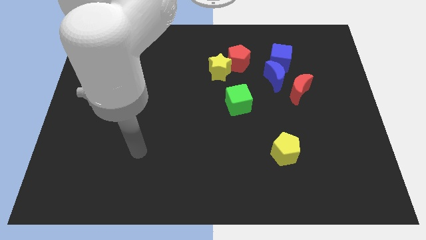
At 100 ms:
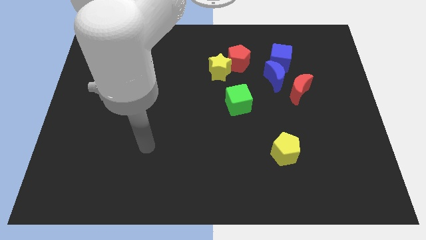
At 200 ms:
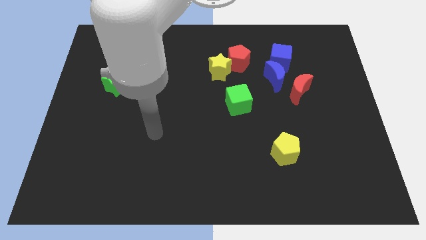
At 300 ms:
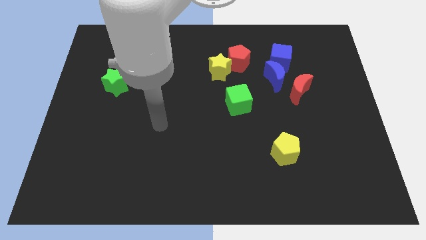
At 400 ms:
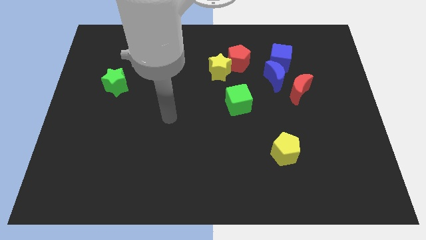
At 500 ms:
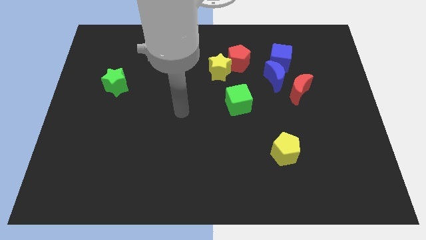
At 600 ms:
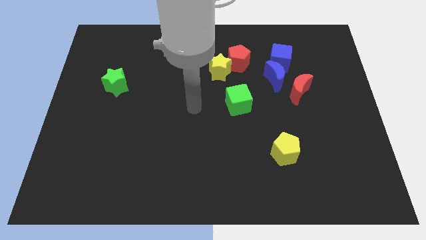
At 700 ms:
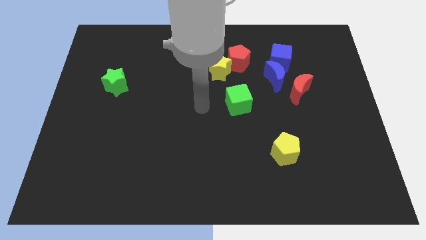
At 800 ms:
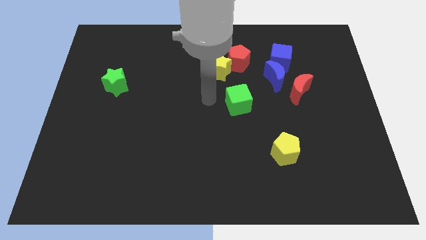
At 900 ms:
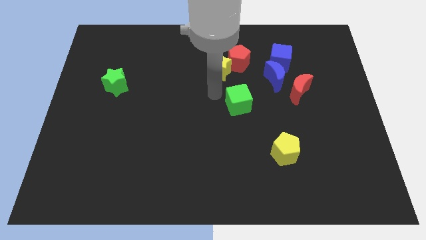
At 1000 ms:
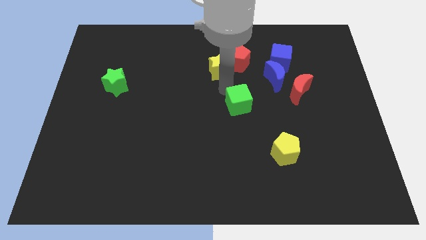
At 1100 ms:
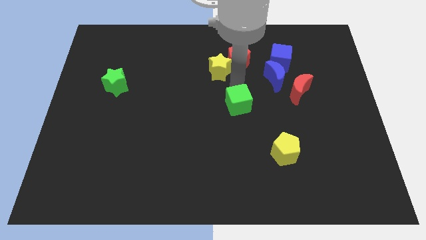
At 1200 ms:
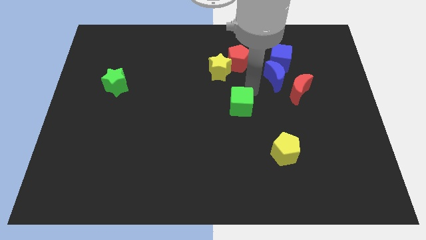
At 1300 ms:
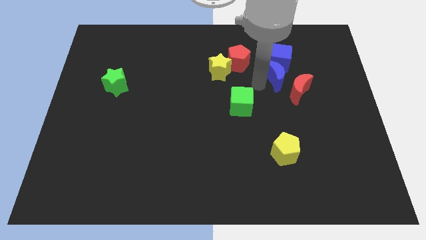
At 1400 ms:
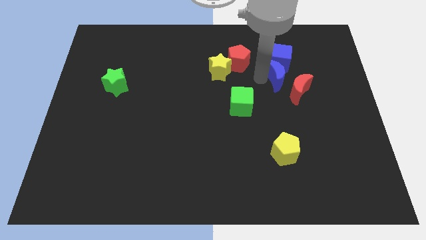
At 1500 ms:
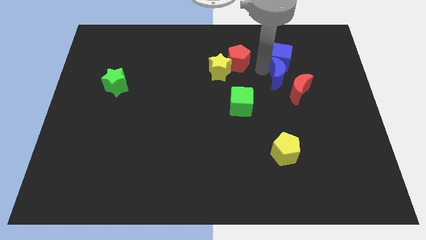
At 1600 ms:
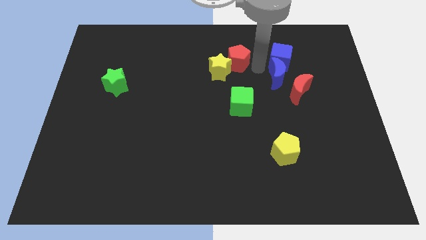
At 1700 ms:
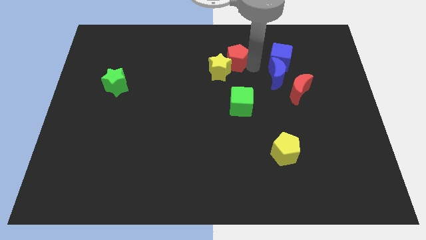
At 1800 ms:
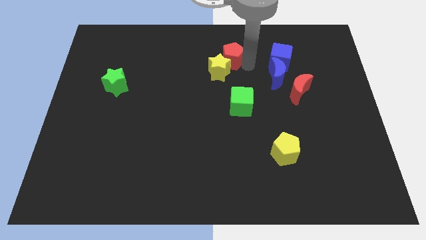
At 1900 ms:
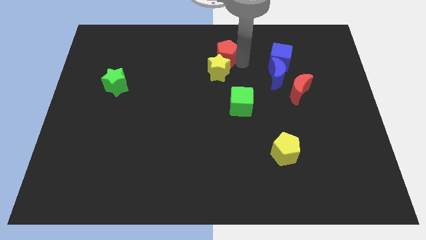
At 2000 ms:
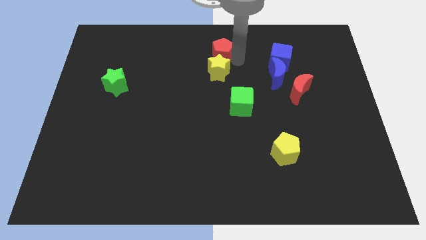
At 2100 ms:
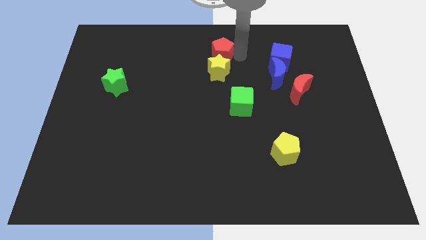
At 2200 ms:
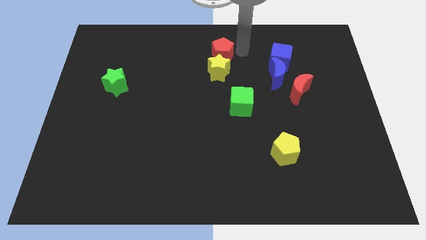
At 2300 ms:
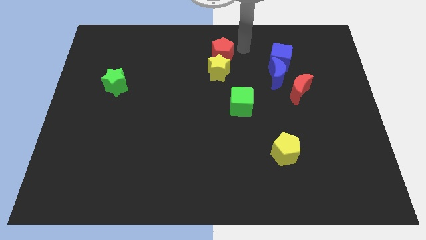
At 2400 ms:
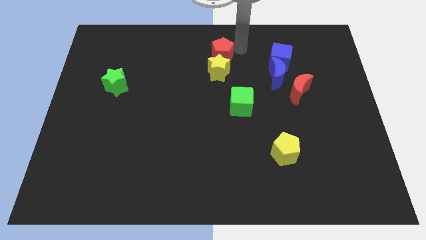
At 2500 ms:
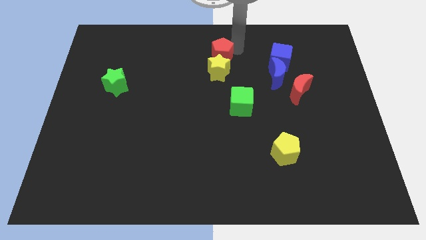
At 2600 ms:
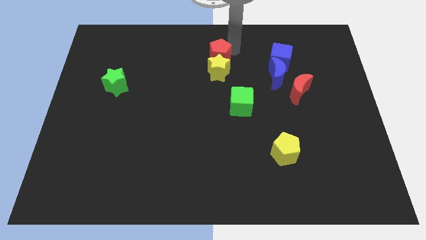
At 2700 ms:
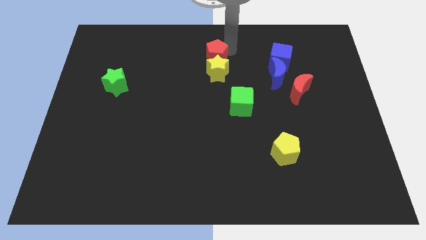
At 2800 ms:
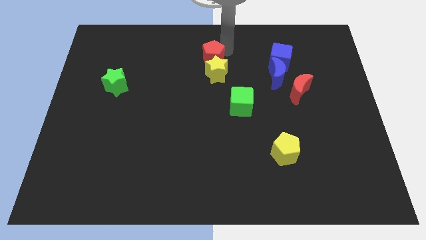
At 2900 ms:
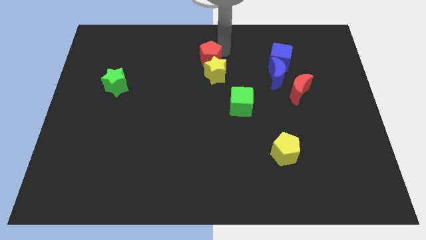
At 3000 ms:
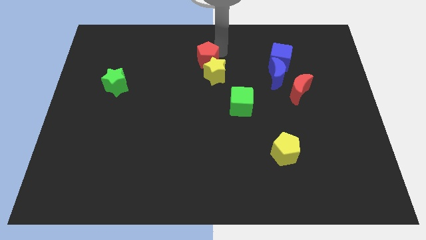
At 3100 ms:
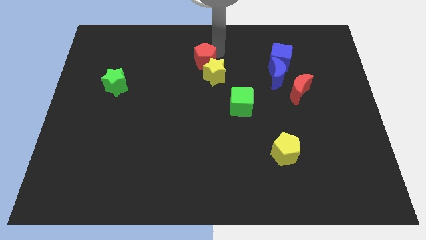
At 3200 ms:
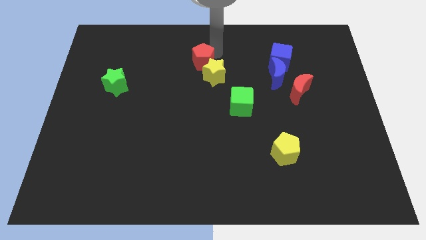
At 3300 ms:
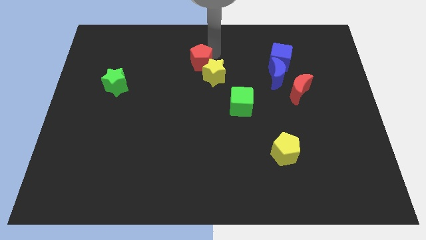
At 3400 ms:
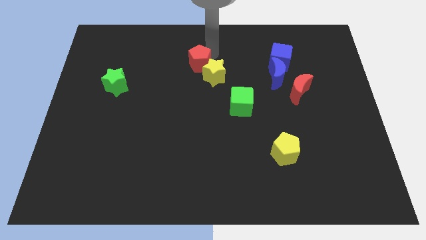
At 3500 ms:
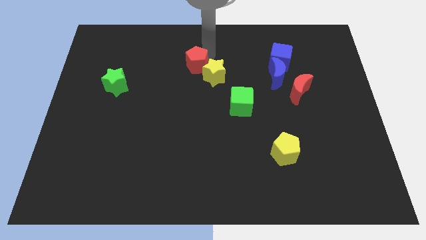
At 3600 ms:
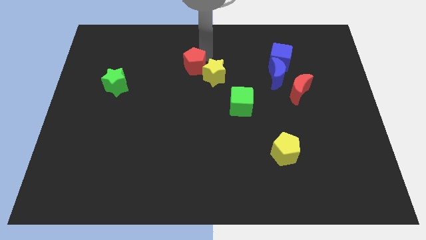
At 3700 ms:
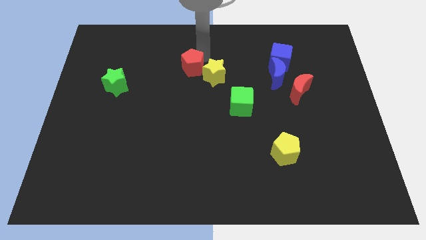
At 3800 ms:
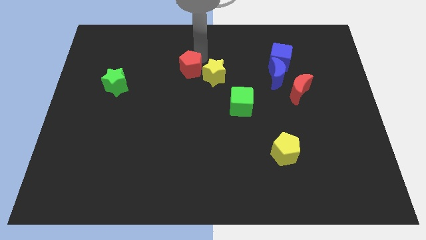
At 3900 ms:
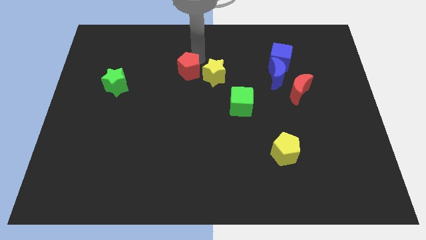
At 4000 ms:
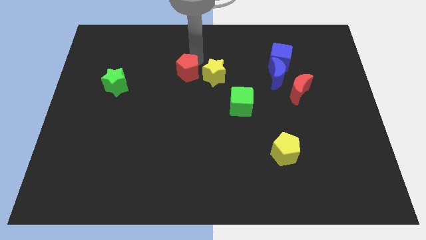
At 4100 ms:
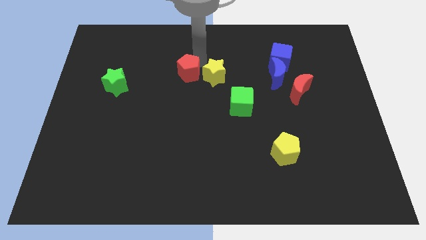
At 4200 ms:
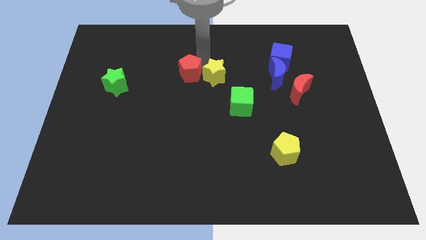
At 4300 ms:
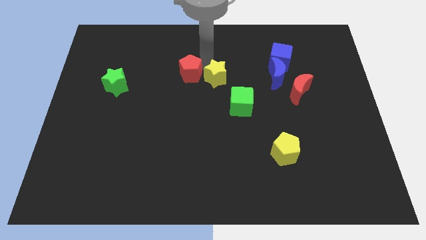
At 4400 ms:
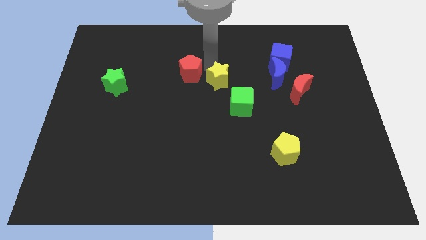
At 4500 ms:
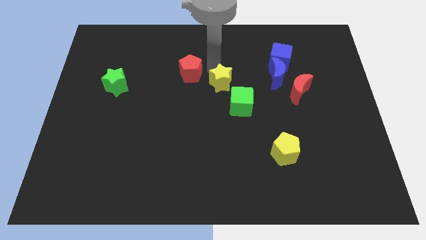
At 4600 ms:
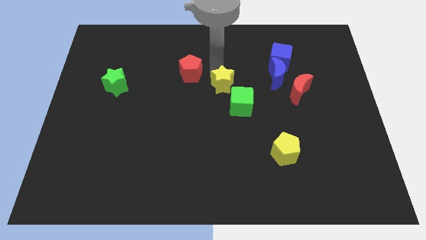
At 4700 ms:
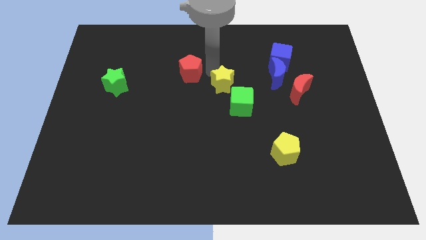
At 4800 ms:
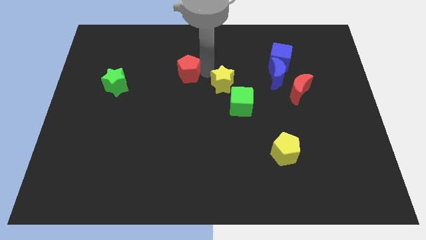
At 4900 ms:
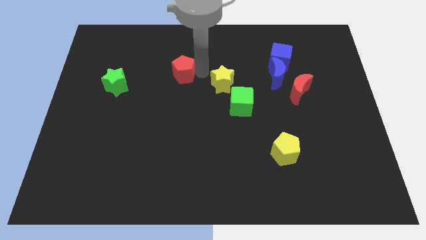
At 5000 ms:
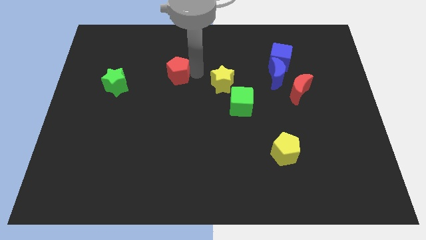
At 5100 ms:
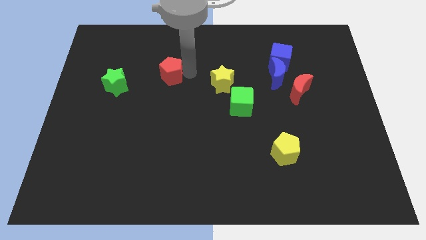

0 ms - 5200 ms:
move the red pentagon to the right side of the green star

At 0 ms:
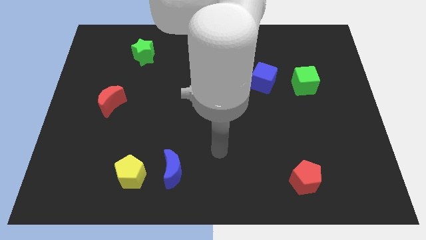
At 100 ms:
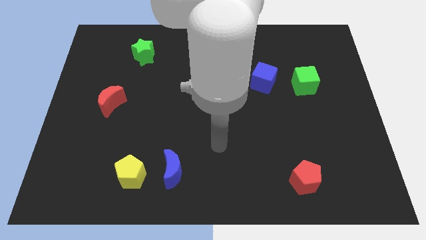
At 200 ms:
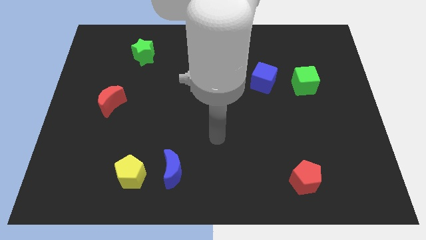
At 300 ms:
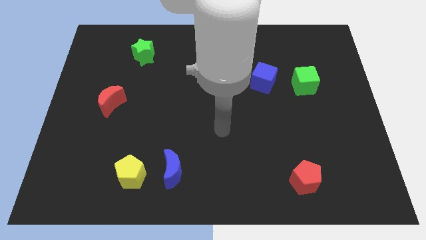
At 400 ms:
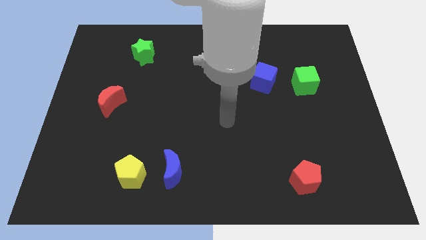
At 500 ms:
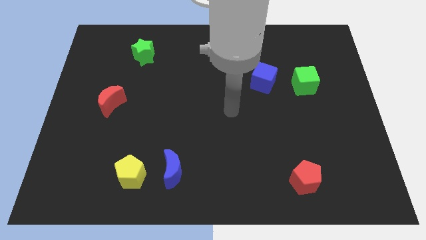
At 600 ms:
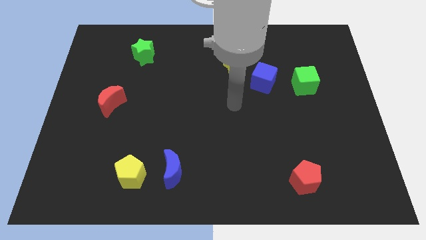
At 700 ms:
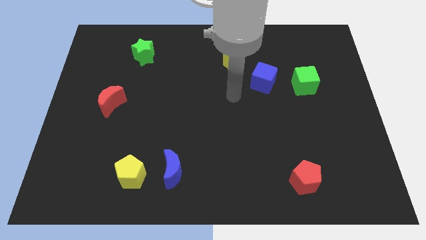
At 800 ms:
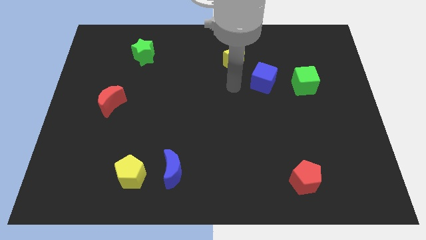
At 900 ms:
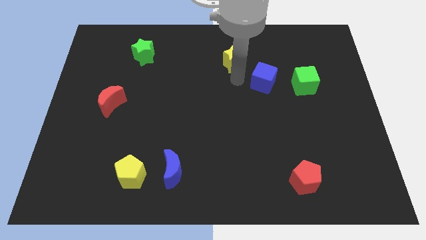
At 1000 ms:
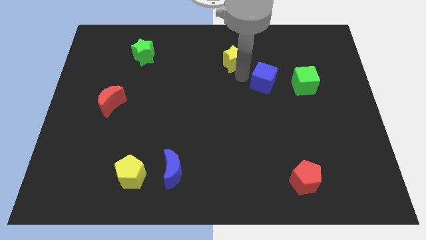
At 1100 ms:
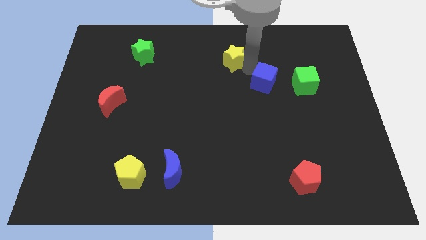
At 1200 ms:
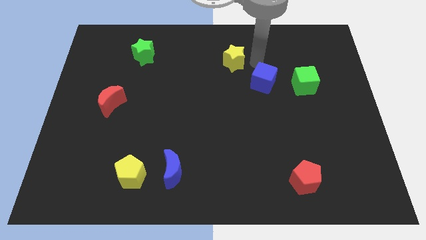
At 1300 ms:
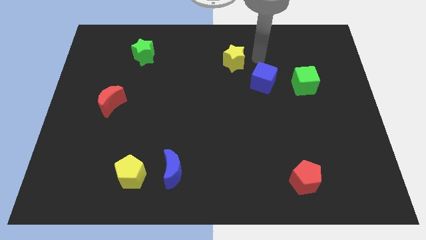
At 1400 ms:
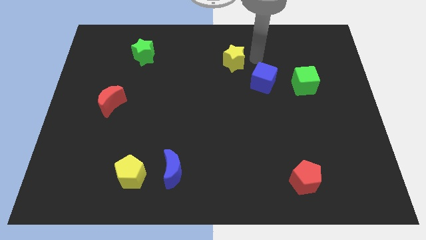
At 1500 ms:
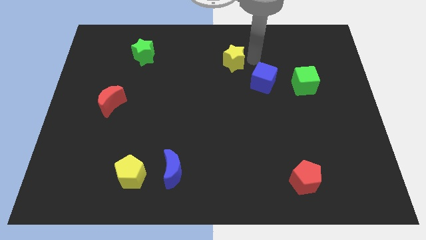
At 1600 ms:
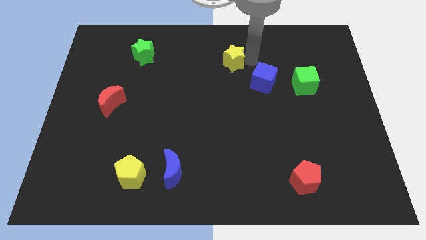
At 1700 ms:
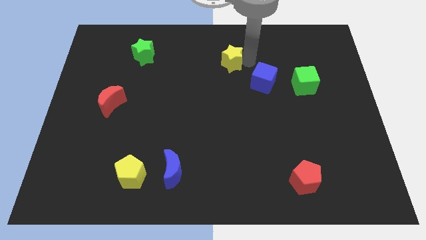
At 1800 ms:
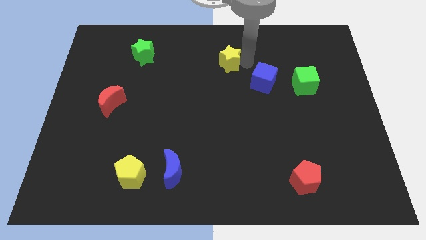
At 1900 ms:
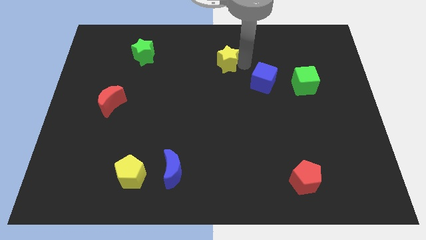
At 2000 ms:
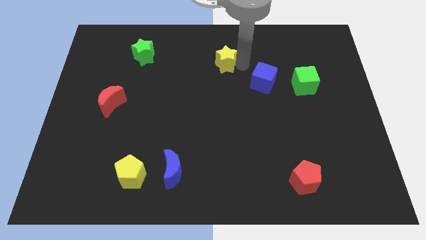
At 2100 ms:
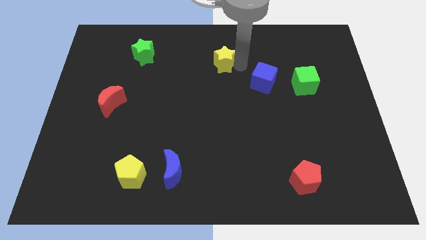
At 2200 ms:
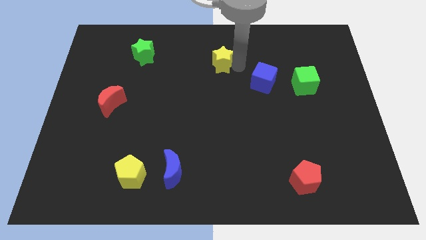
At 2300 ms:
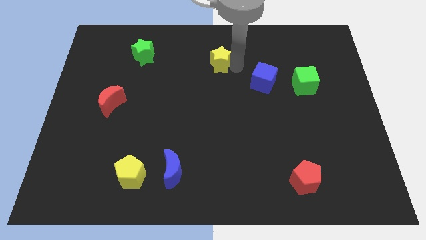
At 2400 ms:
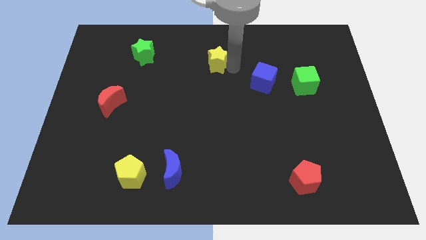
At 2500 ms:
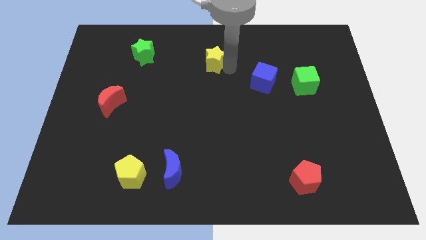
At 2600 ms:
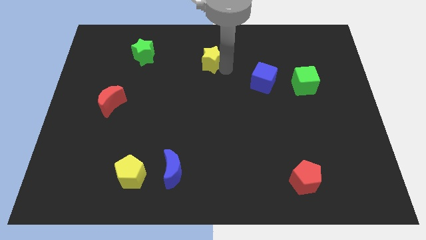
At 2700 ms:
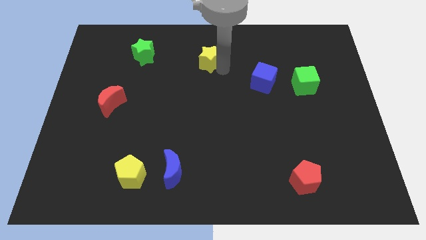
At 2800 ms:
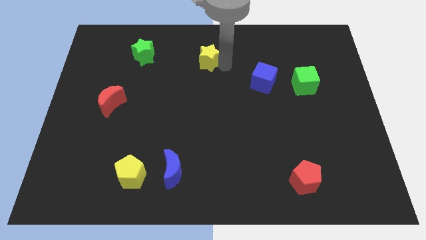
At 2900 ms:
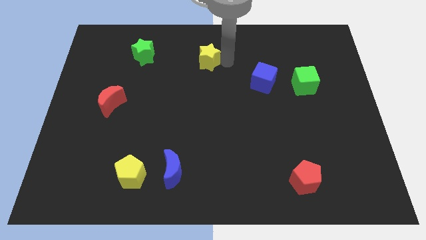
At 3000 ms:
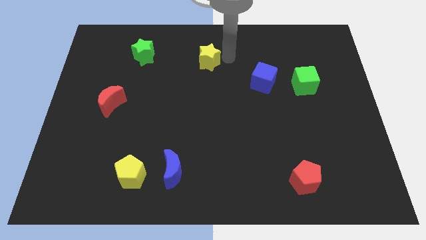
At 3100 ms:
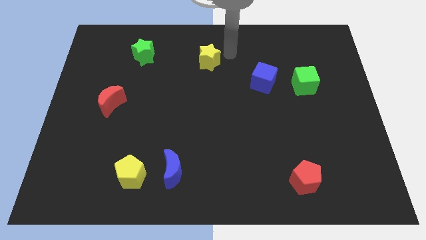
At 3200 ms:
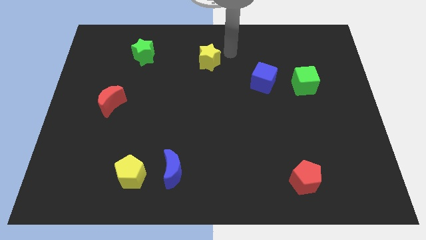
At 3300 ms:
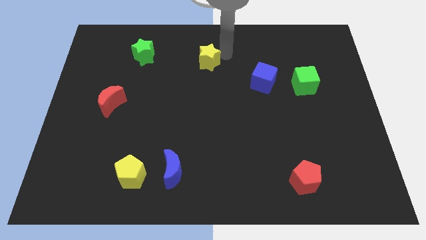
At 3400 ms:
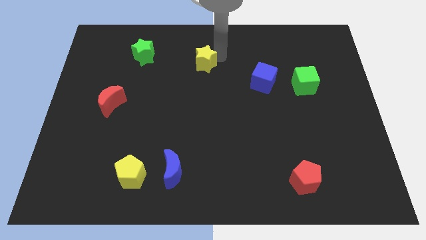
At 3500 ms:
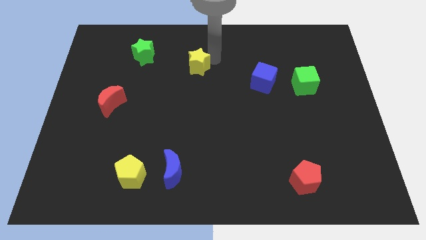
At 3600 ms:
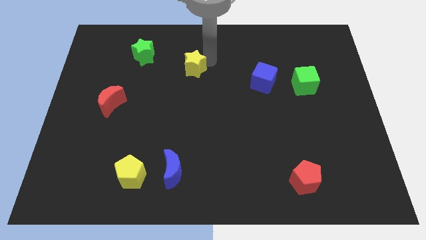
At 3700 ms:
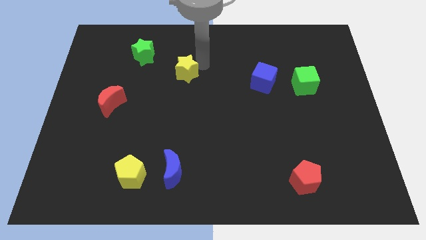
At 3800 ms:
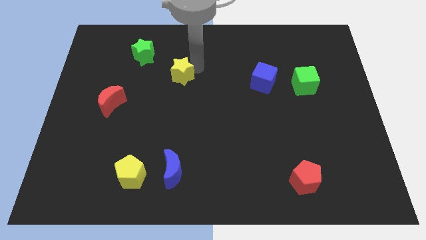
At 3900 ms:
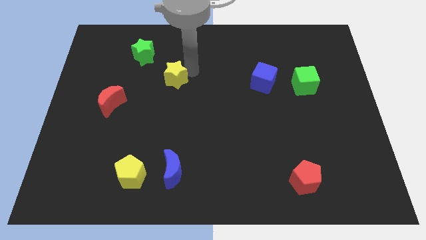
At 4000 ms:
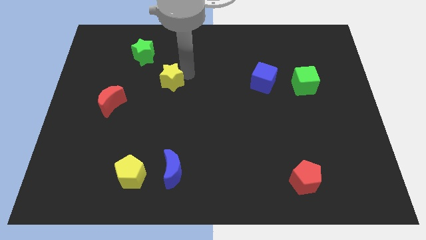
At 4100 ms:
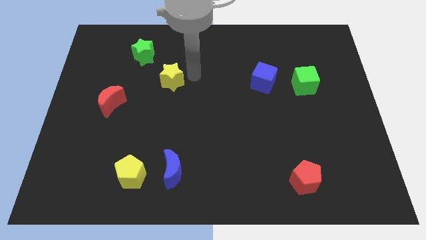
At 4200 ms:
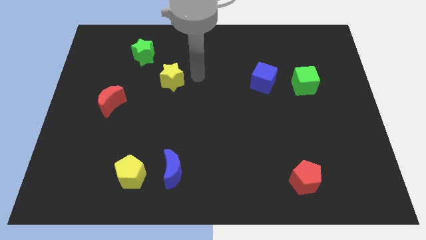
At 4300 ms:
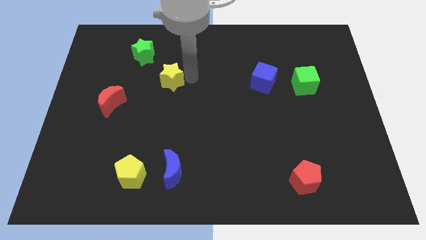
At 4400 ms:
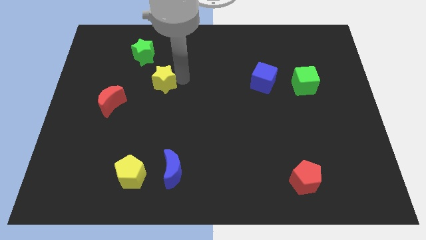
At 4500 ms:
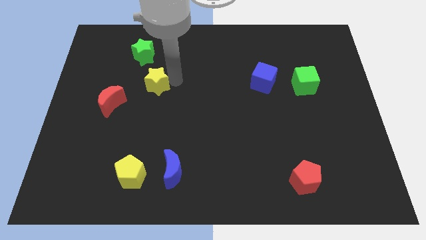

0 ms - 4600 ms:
move the yellow star to the top right of the red moon
